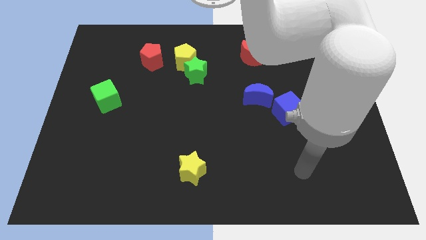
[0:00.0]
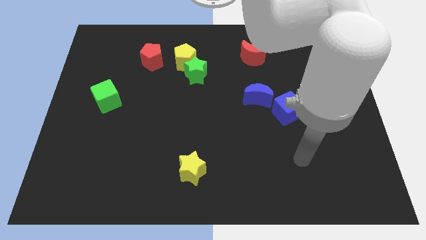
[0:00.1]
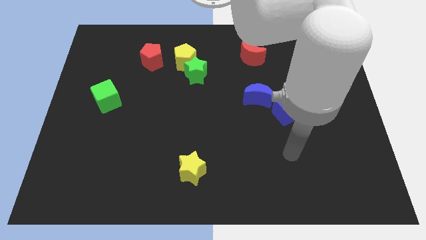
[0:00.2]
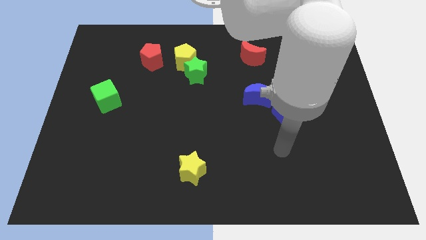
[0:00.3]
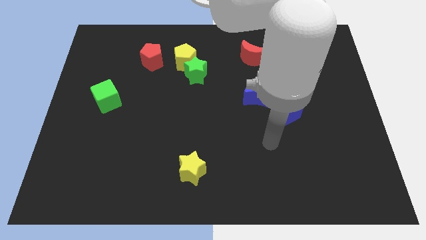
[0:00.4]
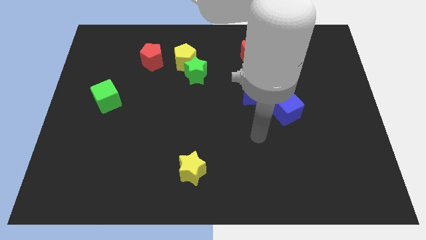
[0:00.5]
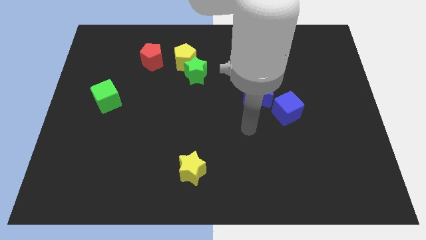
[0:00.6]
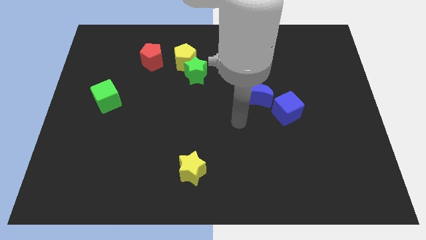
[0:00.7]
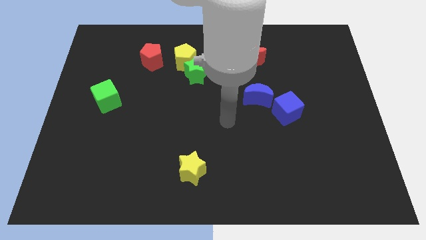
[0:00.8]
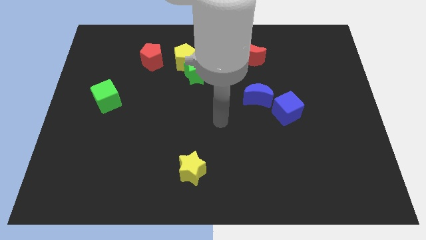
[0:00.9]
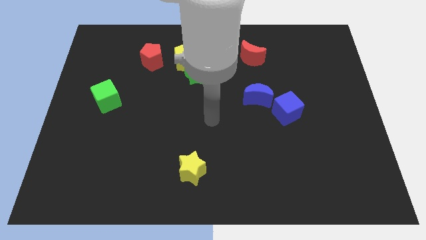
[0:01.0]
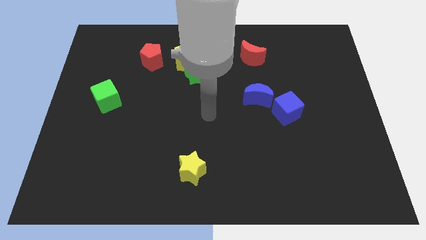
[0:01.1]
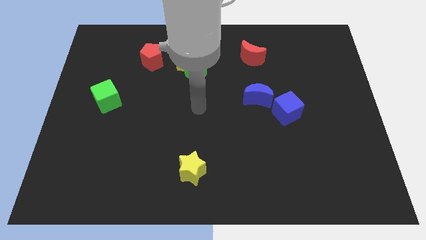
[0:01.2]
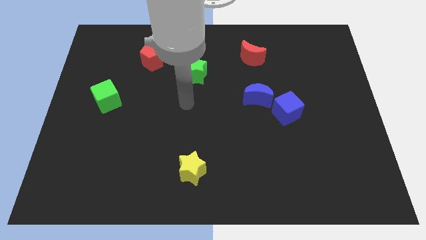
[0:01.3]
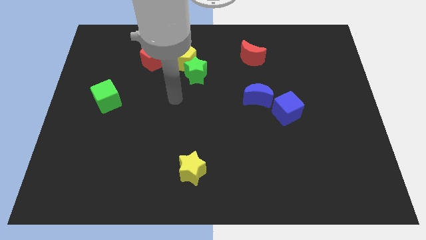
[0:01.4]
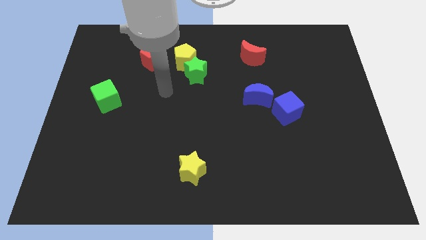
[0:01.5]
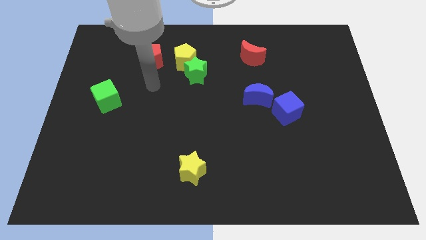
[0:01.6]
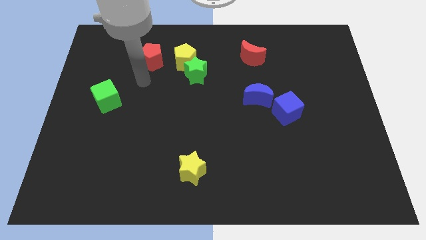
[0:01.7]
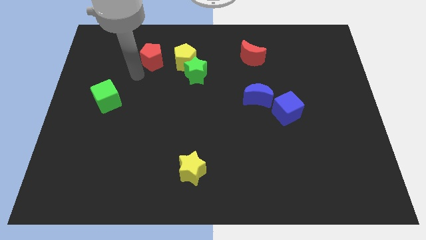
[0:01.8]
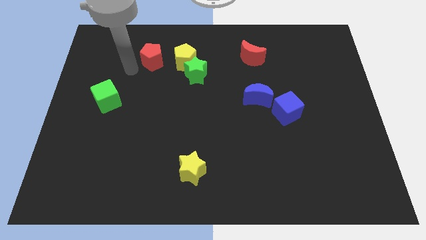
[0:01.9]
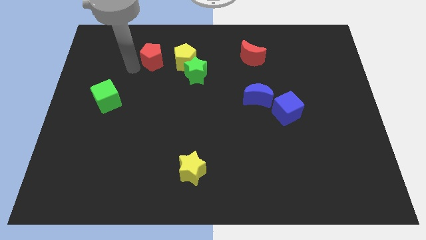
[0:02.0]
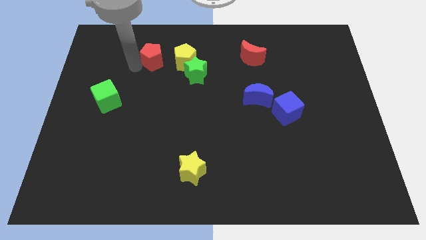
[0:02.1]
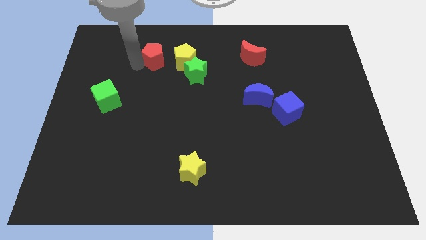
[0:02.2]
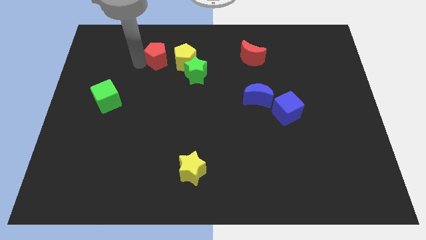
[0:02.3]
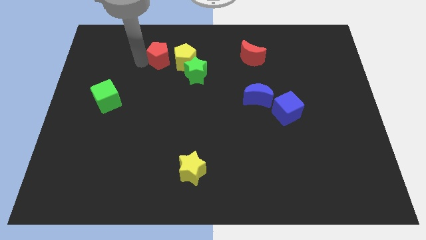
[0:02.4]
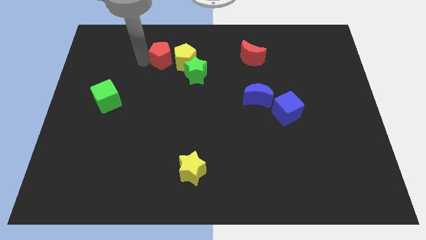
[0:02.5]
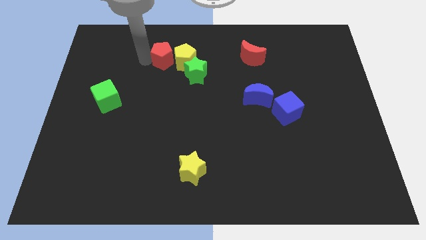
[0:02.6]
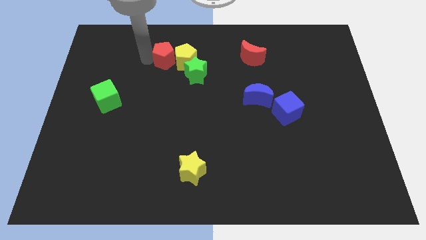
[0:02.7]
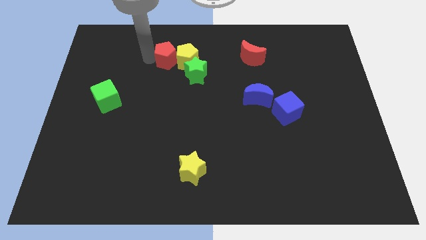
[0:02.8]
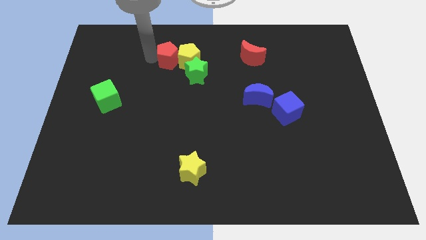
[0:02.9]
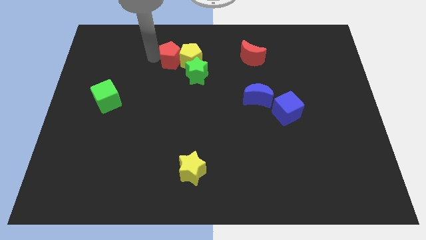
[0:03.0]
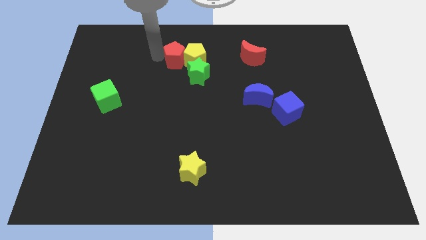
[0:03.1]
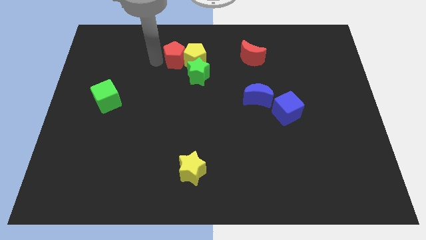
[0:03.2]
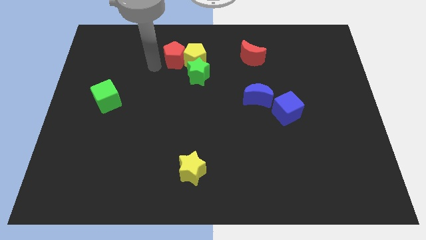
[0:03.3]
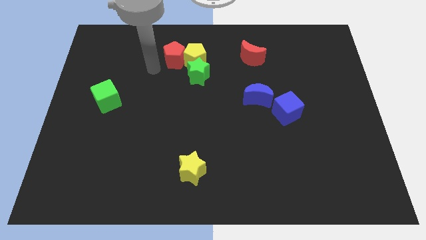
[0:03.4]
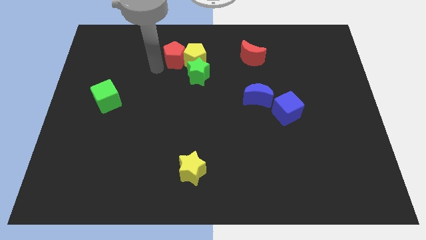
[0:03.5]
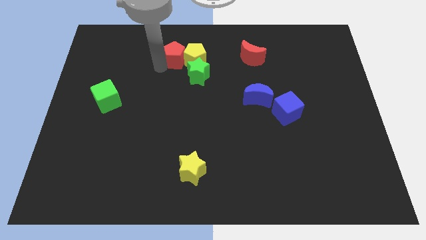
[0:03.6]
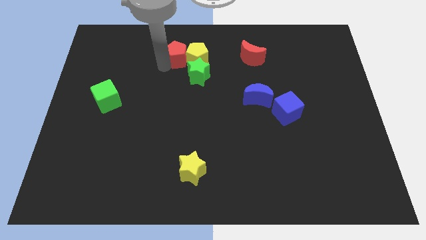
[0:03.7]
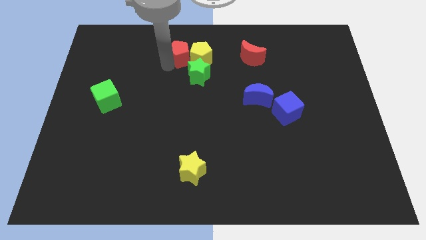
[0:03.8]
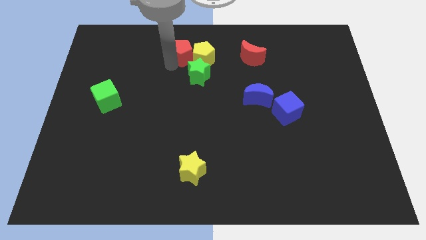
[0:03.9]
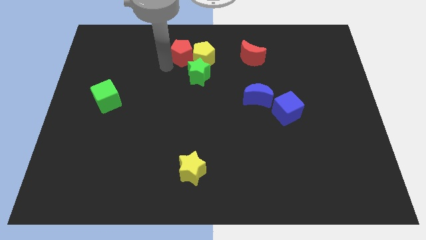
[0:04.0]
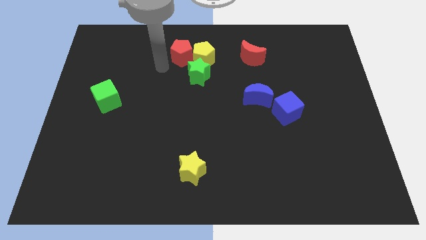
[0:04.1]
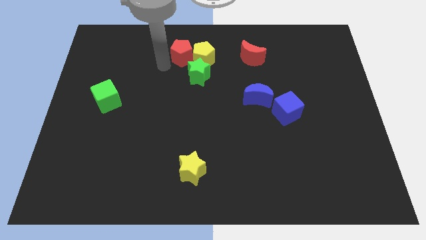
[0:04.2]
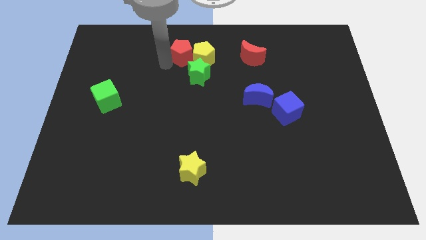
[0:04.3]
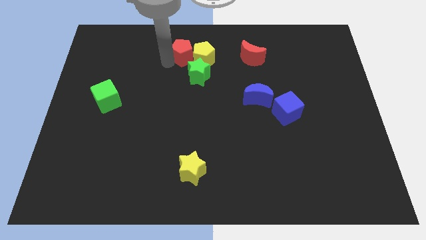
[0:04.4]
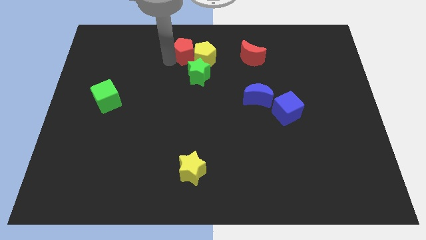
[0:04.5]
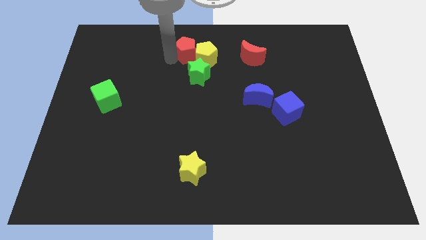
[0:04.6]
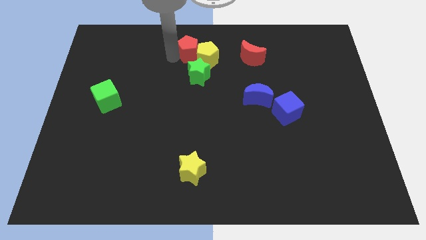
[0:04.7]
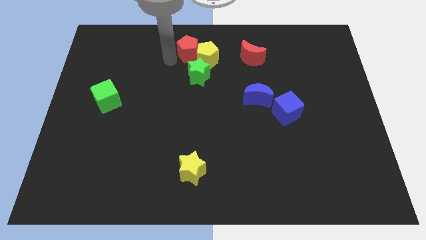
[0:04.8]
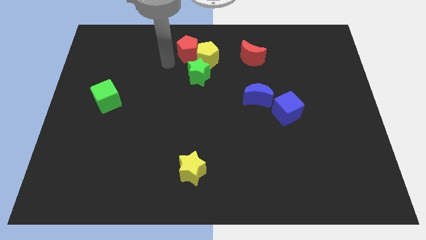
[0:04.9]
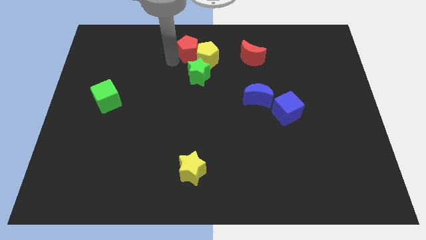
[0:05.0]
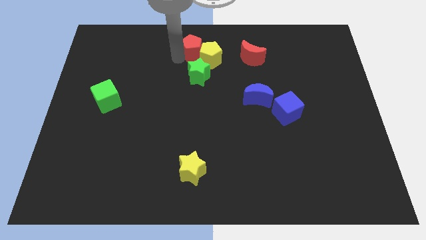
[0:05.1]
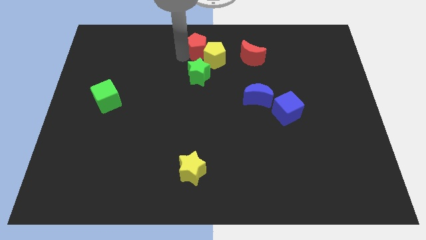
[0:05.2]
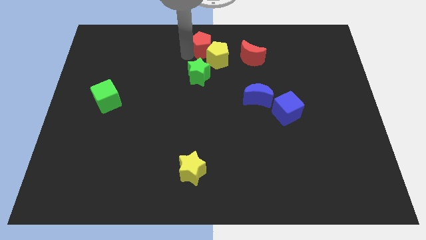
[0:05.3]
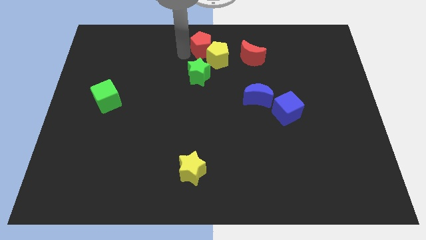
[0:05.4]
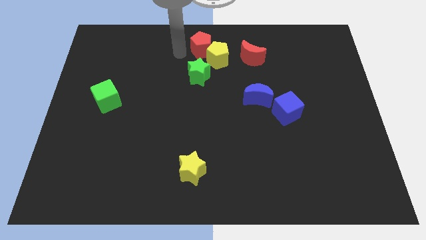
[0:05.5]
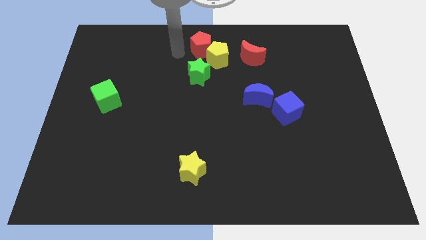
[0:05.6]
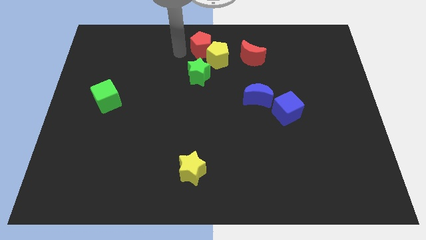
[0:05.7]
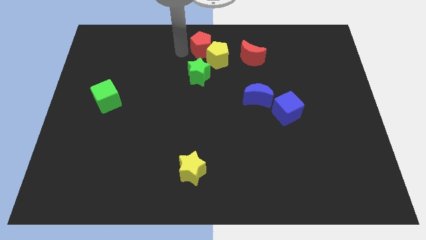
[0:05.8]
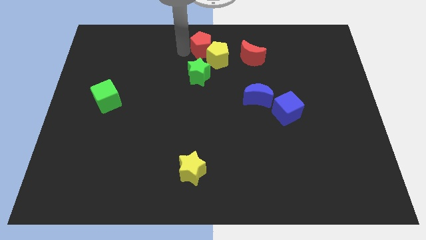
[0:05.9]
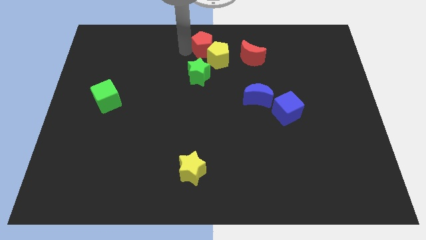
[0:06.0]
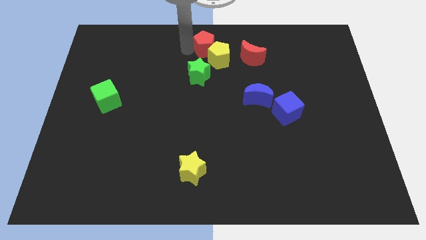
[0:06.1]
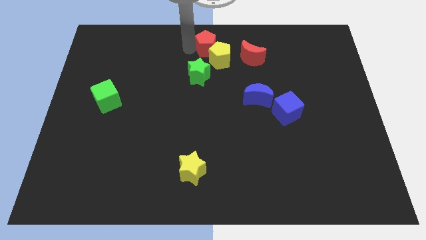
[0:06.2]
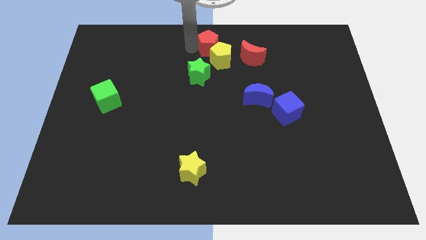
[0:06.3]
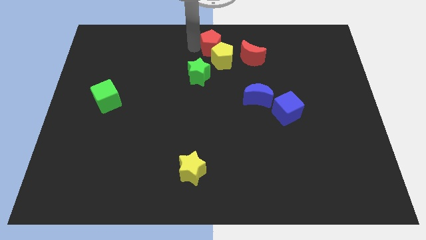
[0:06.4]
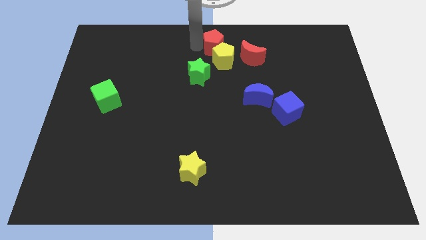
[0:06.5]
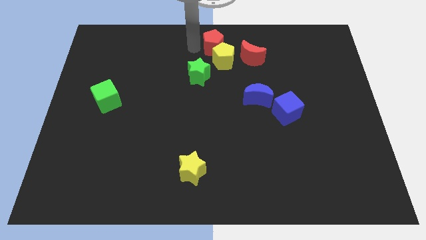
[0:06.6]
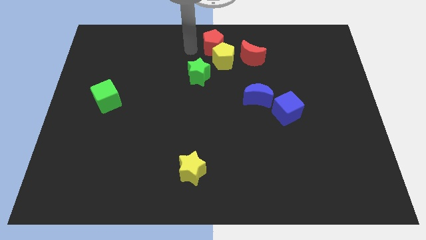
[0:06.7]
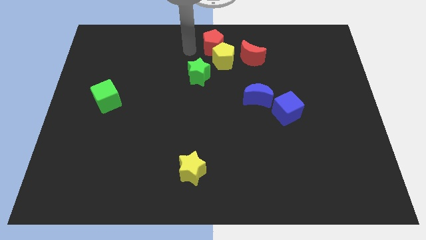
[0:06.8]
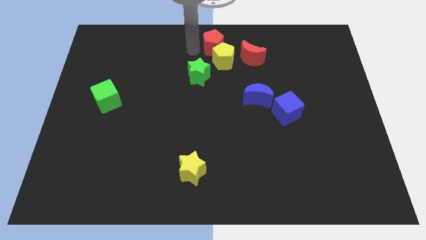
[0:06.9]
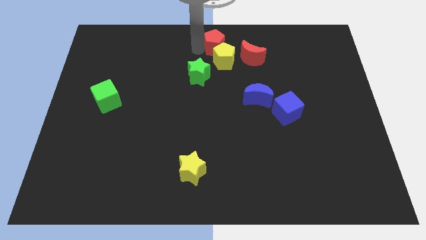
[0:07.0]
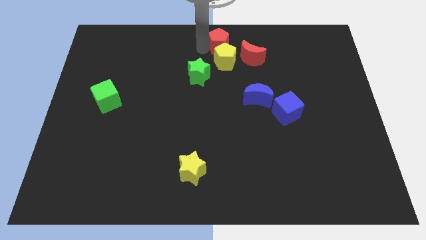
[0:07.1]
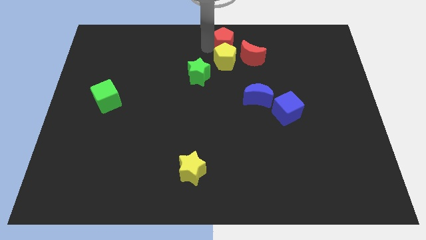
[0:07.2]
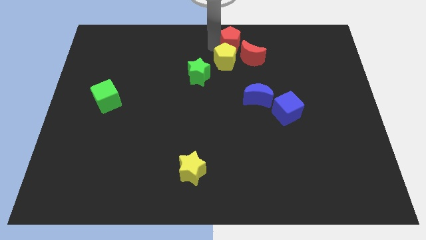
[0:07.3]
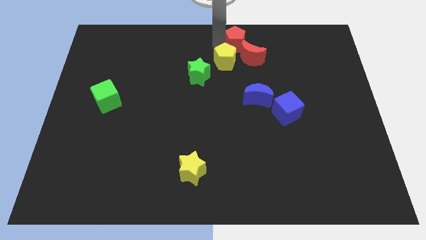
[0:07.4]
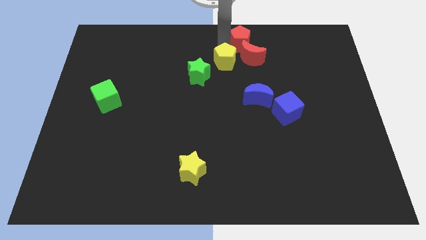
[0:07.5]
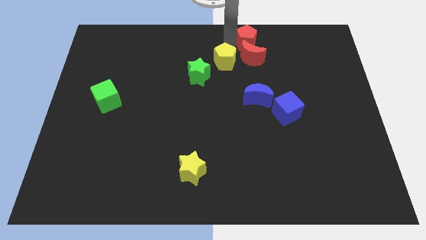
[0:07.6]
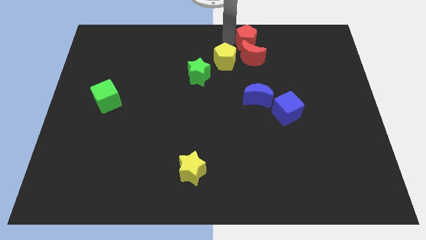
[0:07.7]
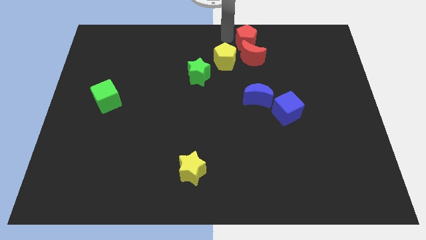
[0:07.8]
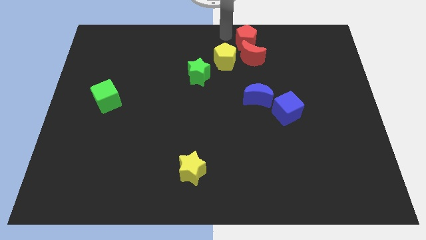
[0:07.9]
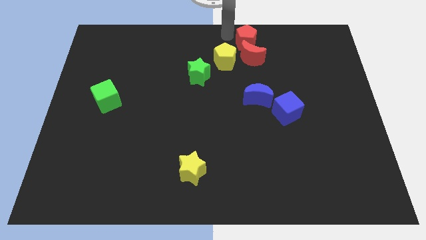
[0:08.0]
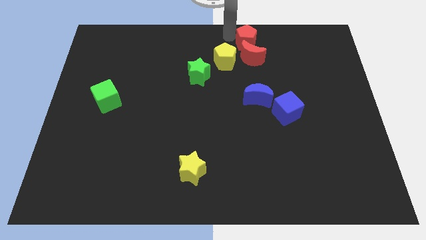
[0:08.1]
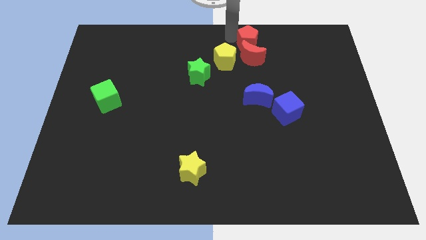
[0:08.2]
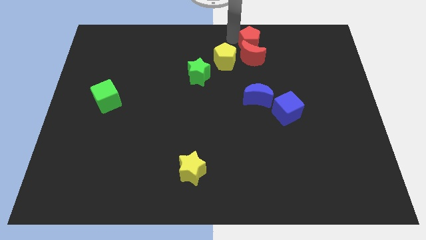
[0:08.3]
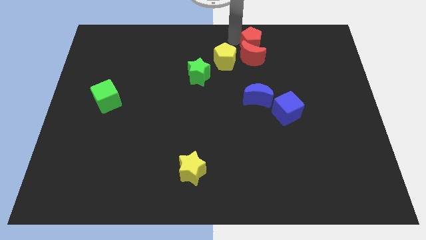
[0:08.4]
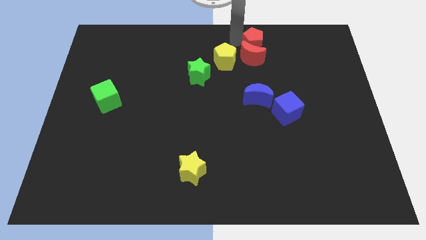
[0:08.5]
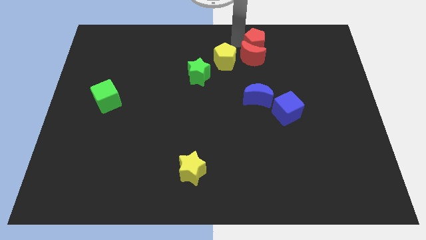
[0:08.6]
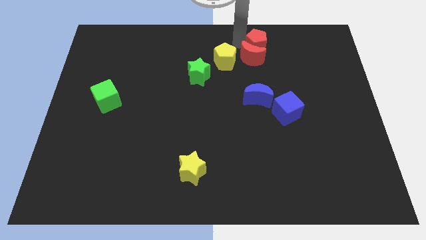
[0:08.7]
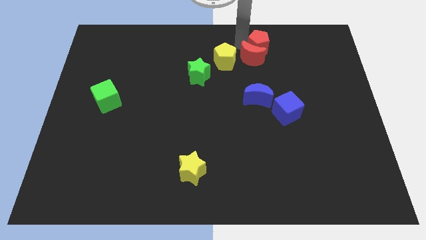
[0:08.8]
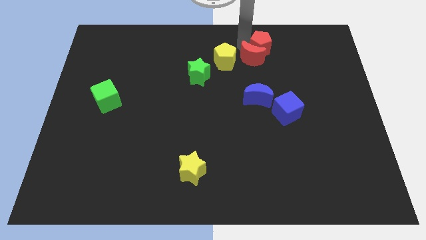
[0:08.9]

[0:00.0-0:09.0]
slide the red pentagon just right of the red moon
